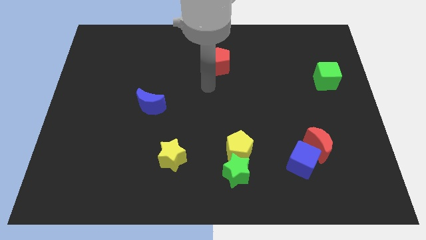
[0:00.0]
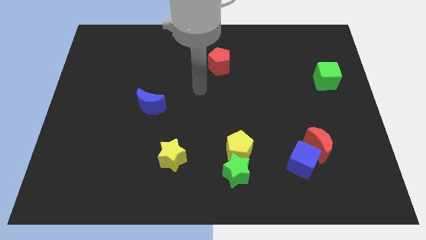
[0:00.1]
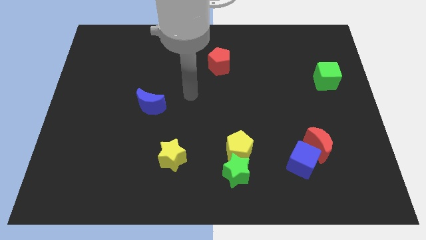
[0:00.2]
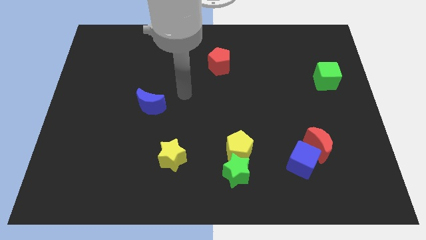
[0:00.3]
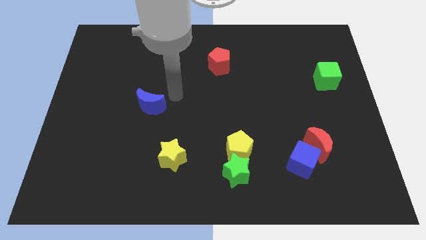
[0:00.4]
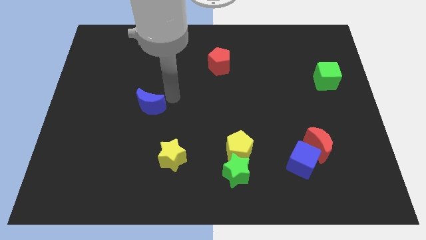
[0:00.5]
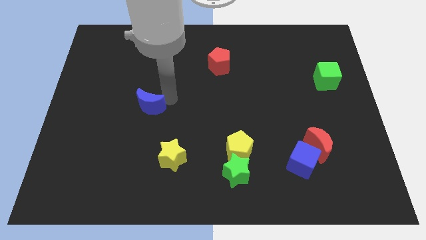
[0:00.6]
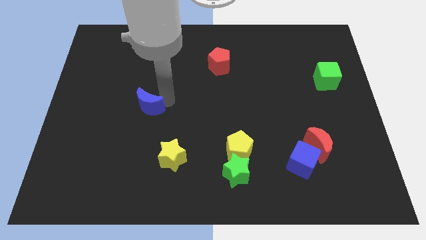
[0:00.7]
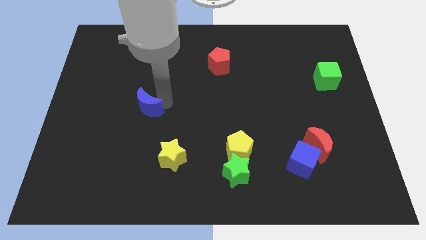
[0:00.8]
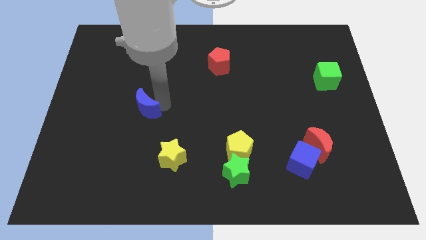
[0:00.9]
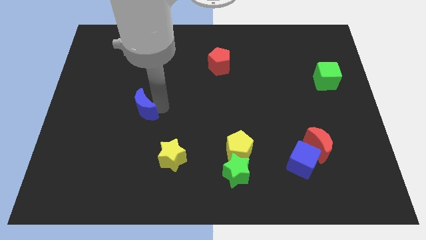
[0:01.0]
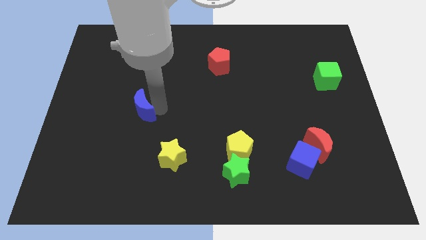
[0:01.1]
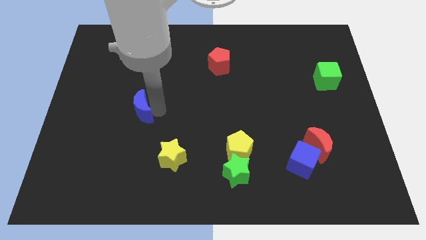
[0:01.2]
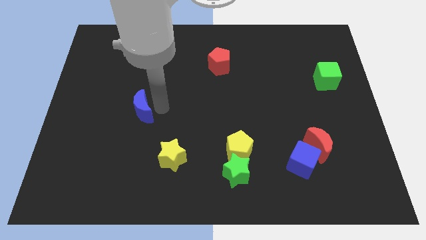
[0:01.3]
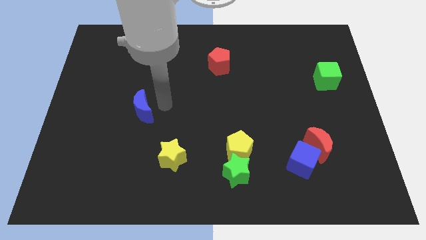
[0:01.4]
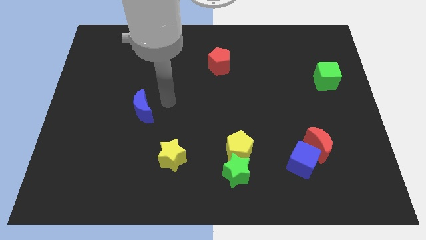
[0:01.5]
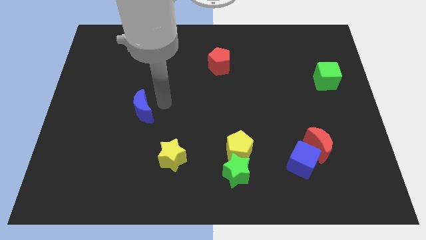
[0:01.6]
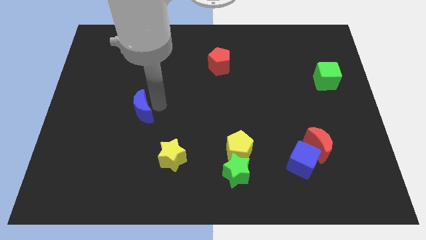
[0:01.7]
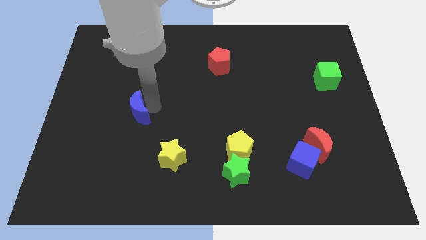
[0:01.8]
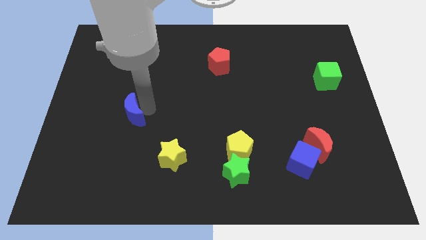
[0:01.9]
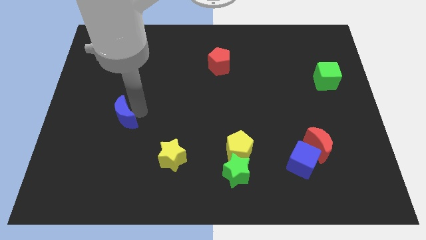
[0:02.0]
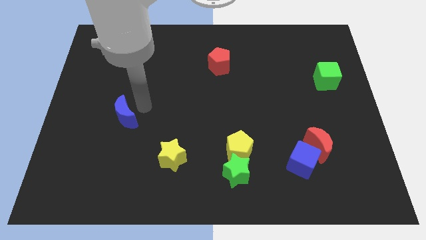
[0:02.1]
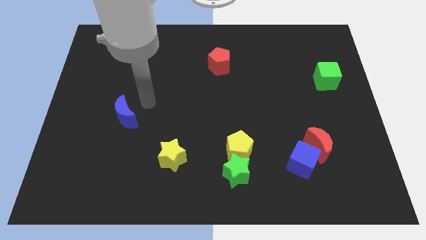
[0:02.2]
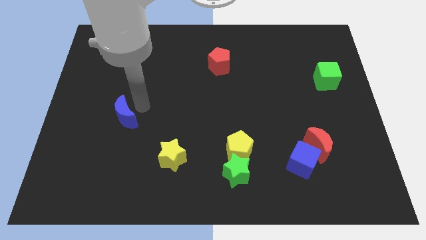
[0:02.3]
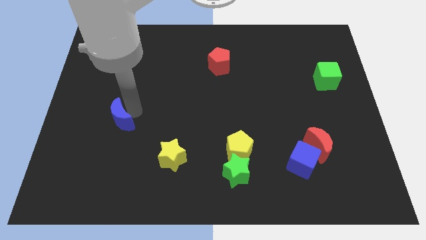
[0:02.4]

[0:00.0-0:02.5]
slightly move the blue moon downwards and left

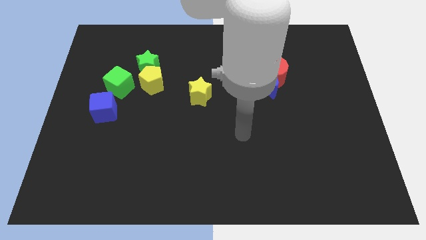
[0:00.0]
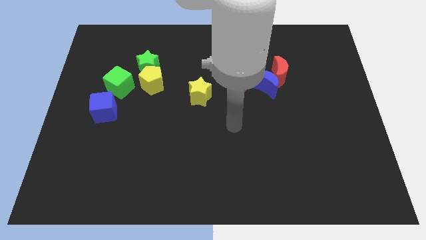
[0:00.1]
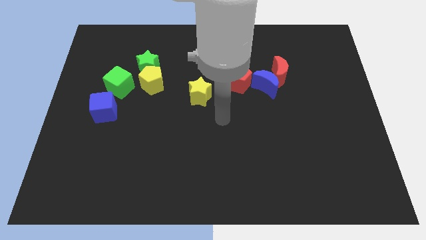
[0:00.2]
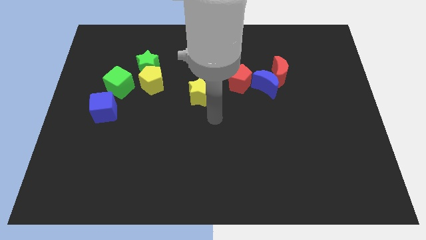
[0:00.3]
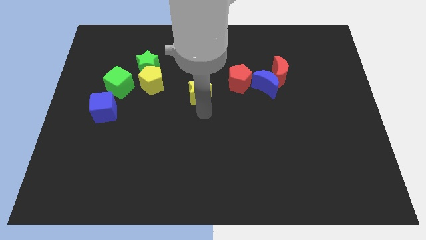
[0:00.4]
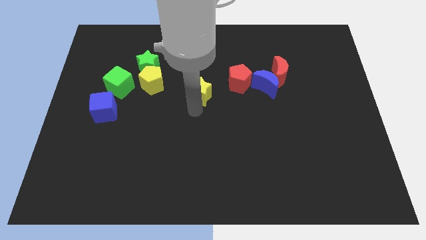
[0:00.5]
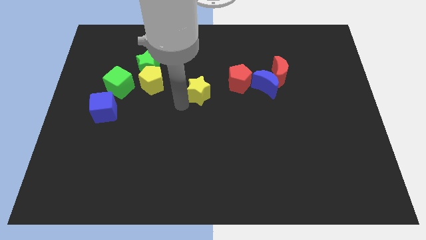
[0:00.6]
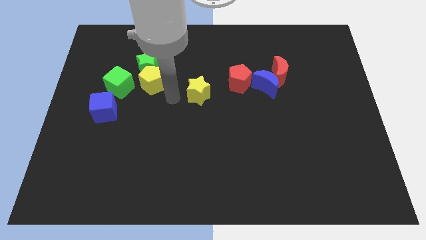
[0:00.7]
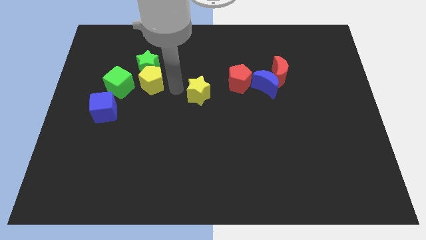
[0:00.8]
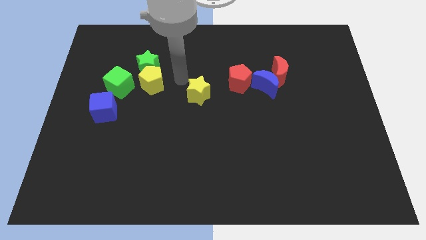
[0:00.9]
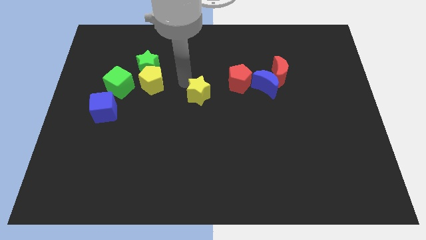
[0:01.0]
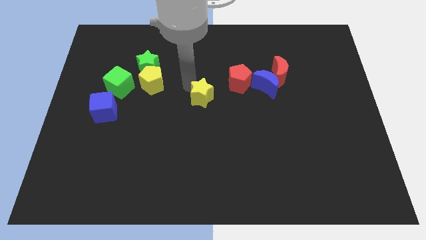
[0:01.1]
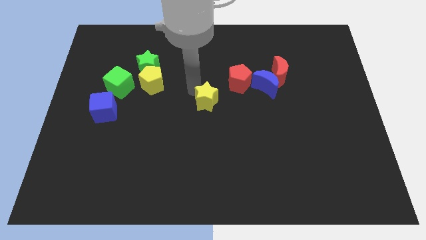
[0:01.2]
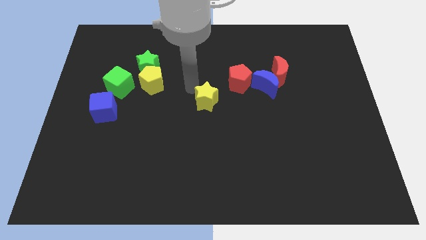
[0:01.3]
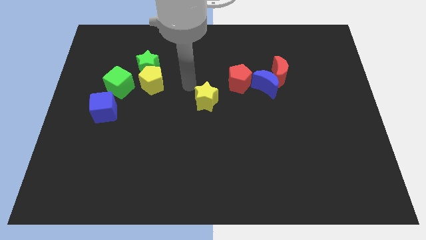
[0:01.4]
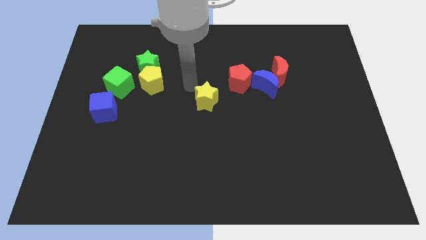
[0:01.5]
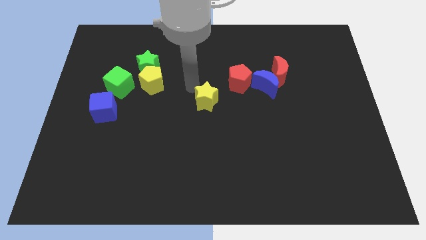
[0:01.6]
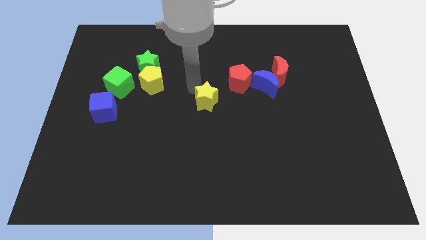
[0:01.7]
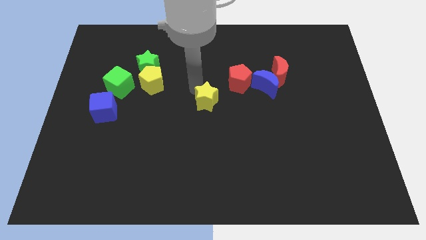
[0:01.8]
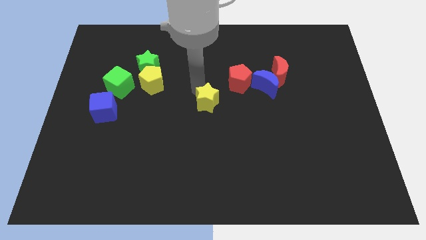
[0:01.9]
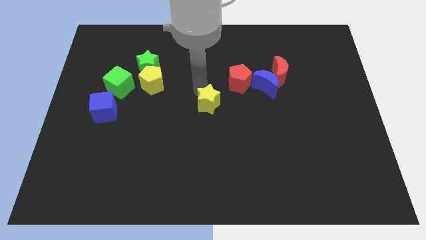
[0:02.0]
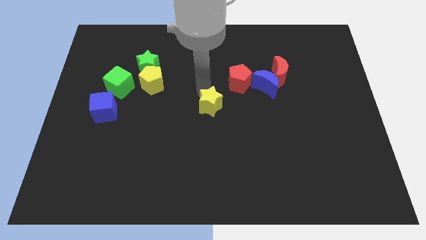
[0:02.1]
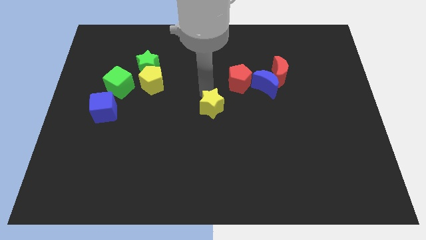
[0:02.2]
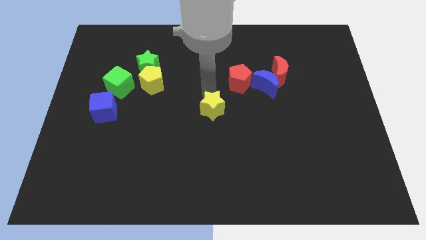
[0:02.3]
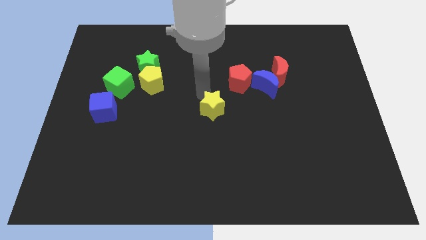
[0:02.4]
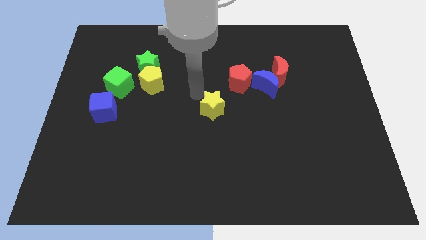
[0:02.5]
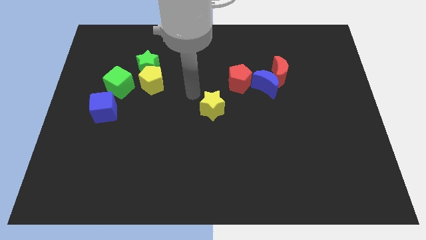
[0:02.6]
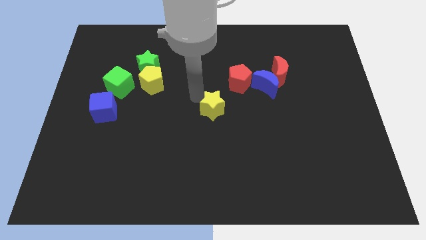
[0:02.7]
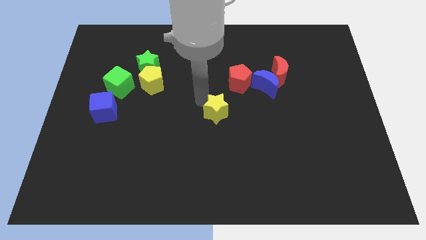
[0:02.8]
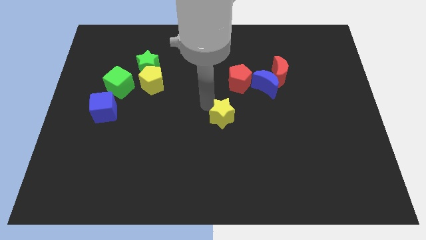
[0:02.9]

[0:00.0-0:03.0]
slightly slide the yellow star downwards and right diagonally

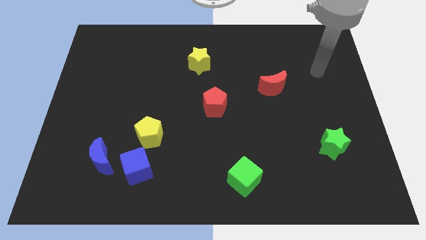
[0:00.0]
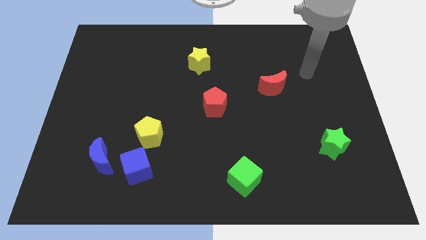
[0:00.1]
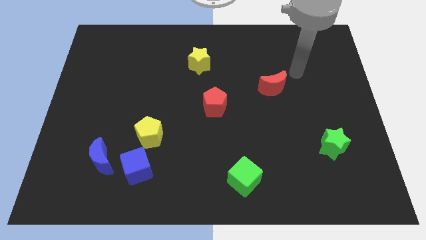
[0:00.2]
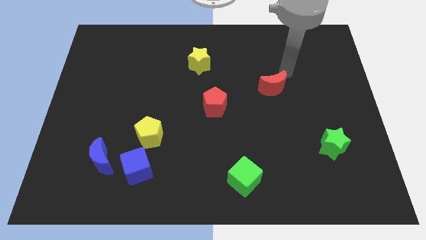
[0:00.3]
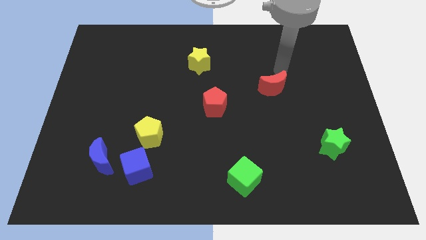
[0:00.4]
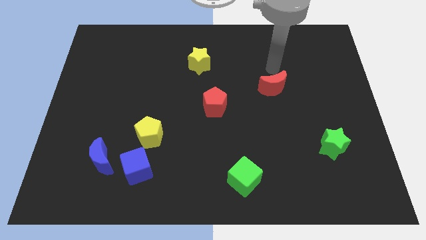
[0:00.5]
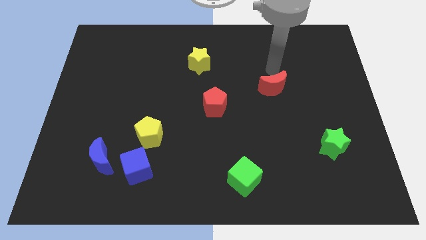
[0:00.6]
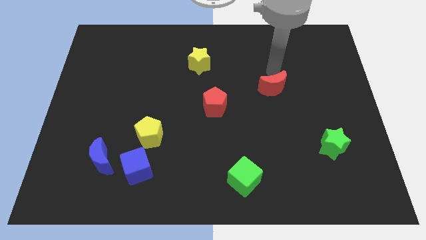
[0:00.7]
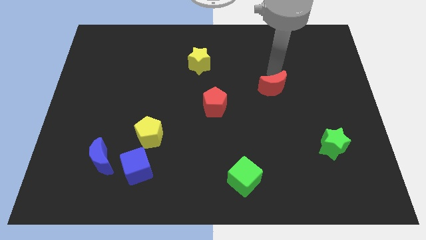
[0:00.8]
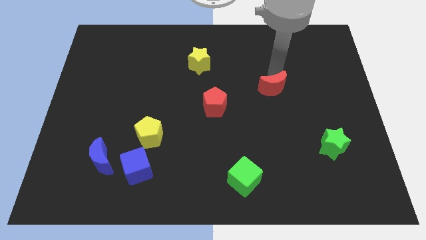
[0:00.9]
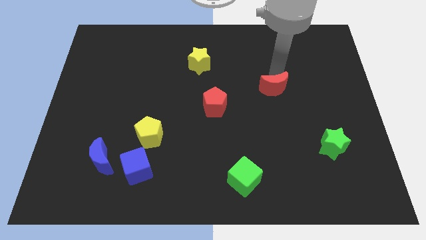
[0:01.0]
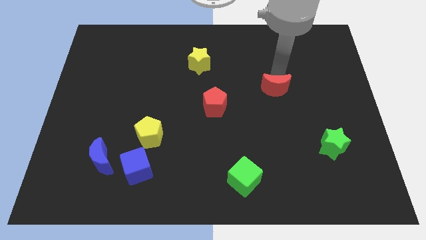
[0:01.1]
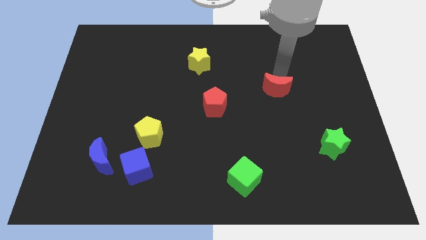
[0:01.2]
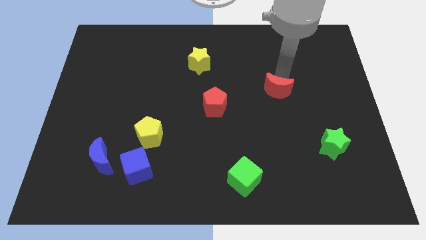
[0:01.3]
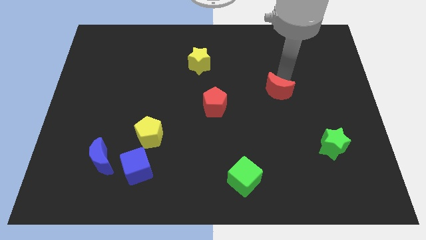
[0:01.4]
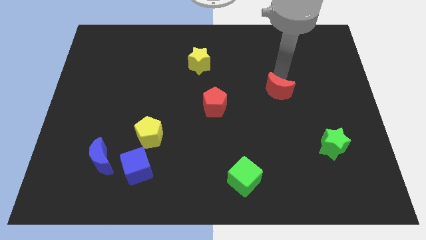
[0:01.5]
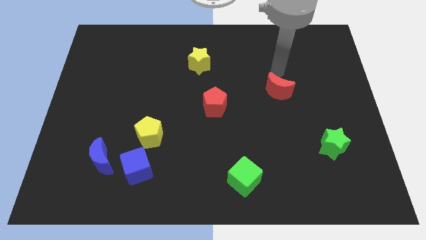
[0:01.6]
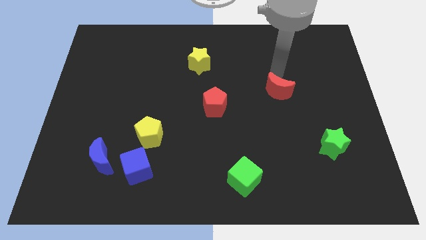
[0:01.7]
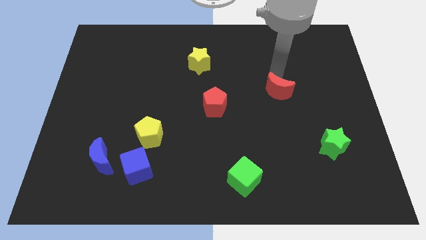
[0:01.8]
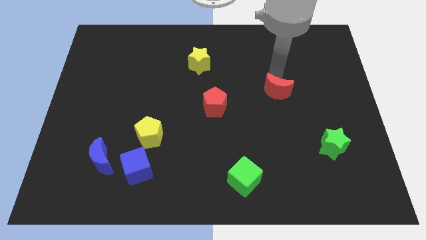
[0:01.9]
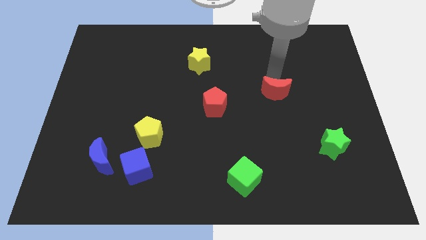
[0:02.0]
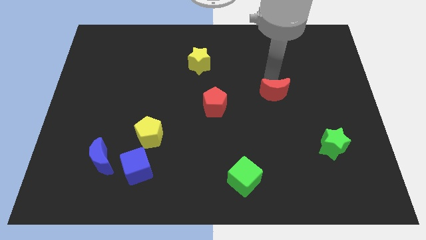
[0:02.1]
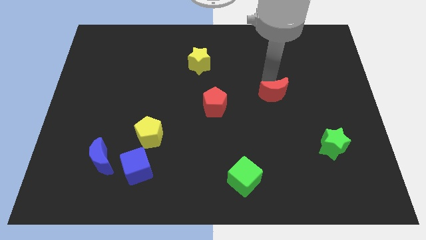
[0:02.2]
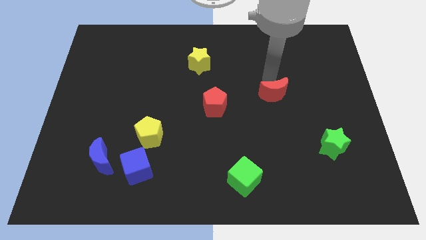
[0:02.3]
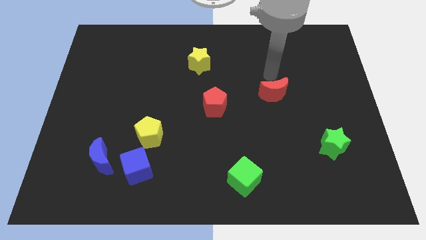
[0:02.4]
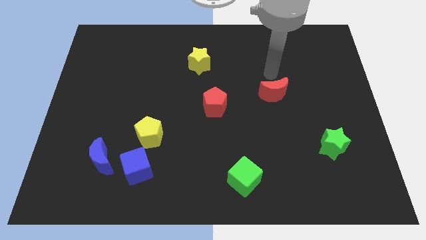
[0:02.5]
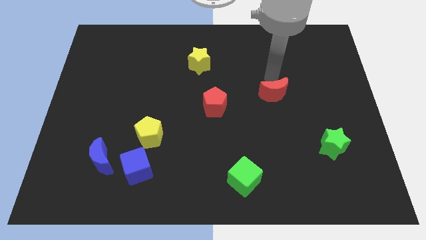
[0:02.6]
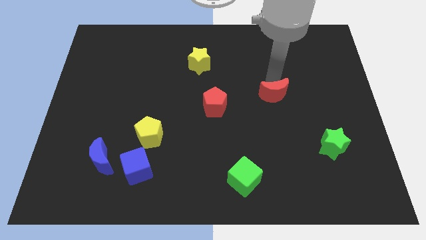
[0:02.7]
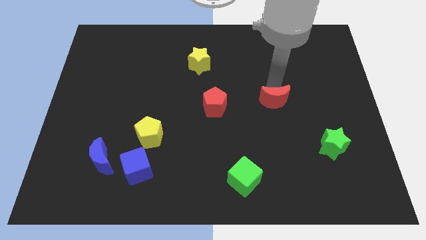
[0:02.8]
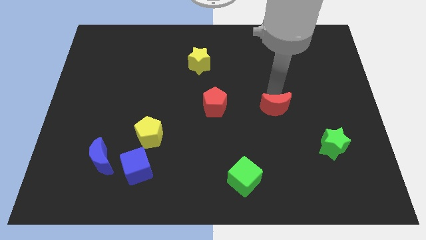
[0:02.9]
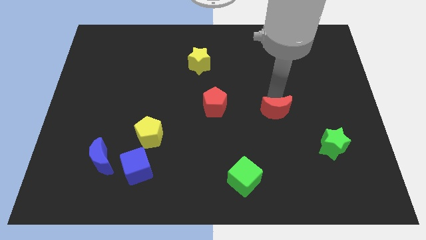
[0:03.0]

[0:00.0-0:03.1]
move the red moon a little down
